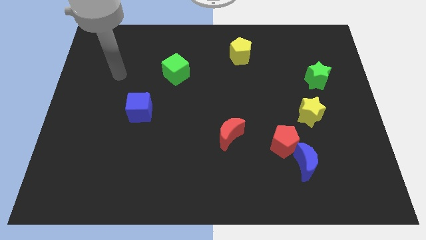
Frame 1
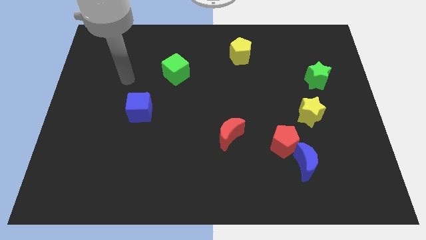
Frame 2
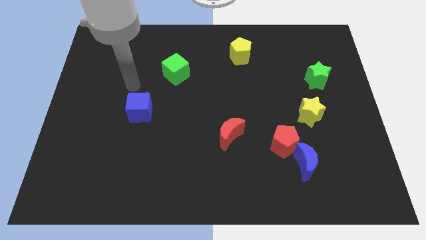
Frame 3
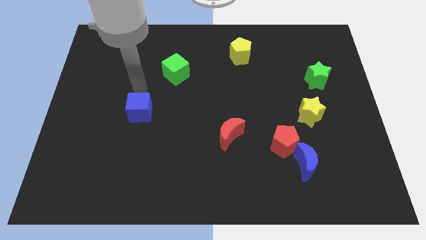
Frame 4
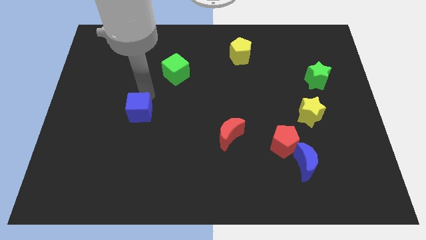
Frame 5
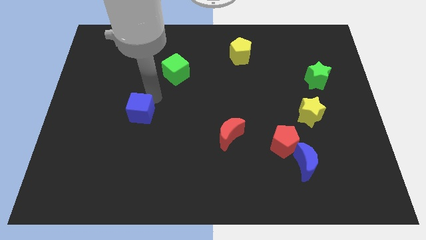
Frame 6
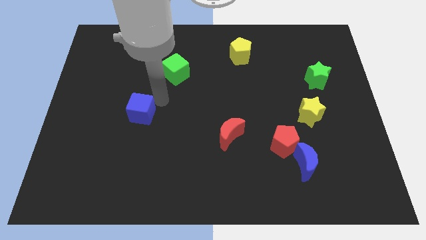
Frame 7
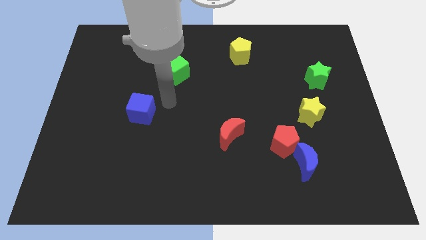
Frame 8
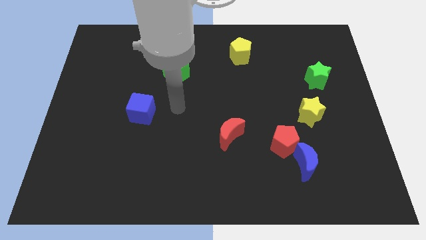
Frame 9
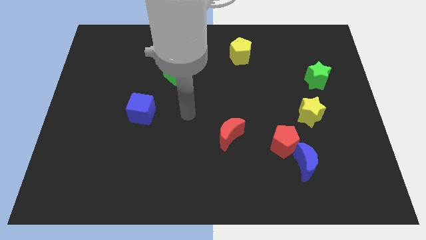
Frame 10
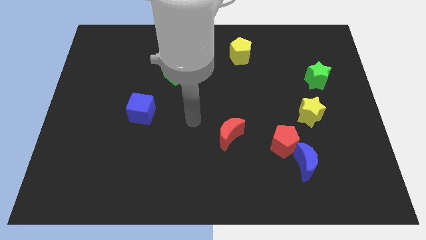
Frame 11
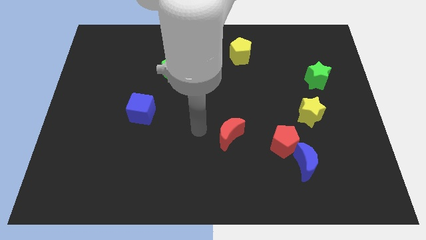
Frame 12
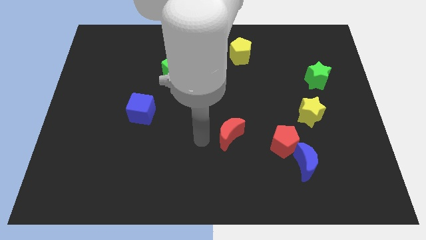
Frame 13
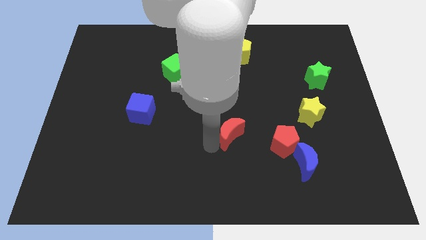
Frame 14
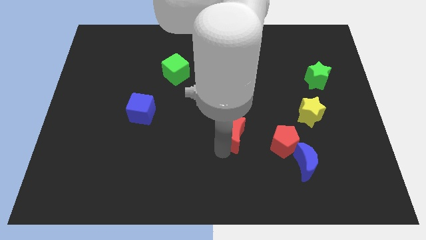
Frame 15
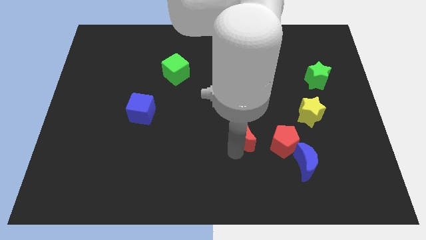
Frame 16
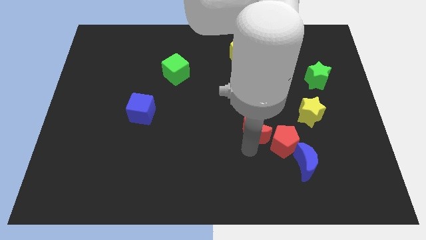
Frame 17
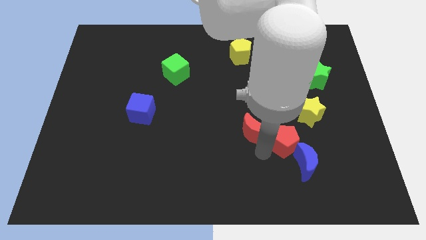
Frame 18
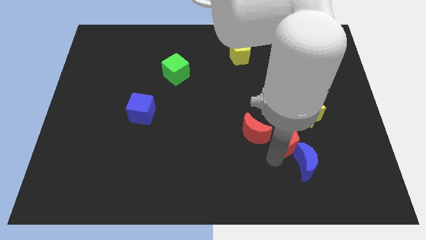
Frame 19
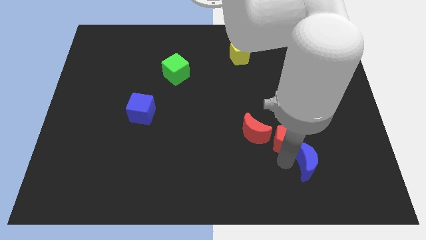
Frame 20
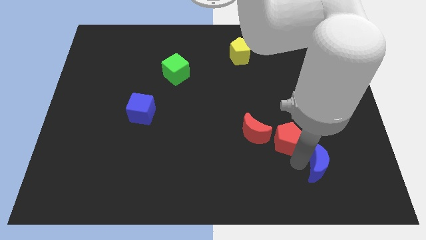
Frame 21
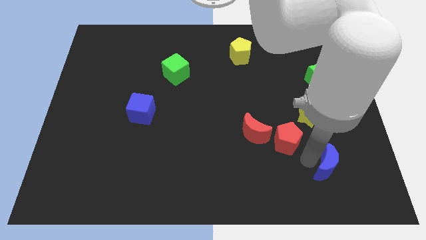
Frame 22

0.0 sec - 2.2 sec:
separate the red pentagon from the blue moon

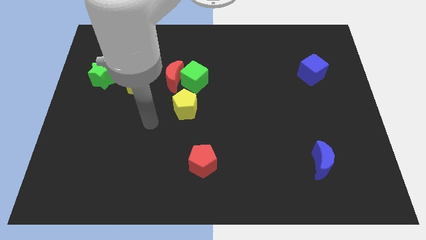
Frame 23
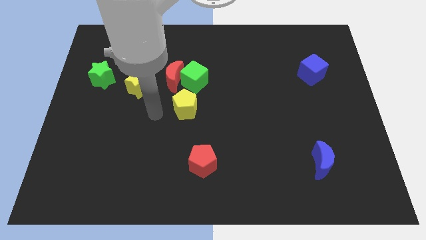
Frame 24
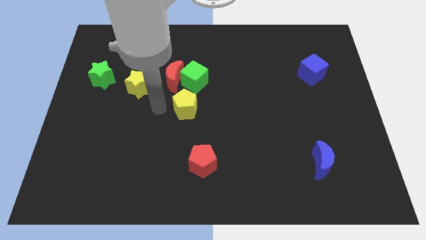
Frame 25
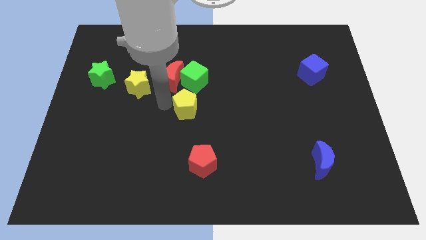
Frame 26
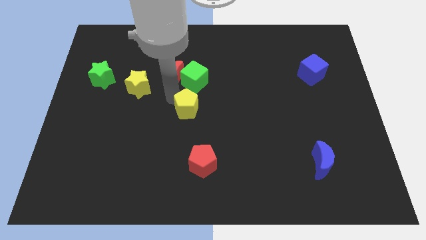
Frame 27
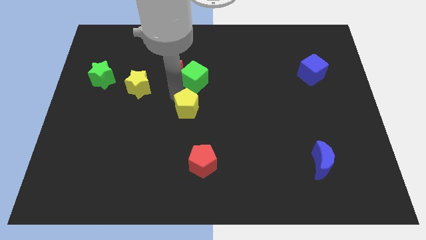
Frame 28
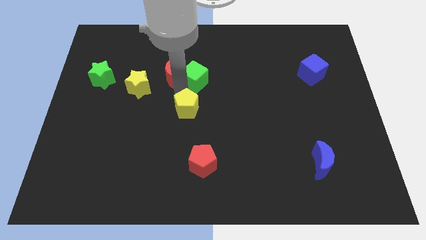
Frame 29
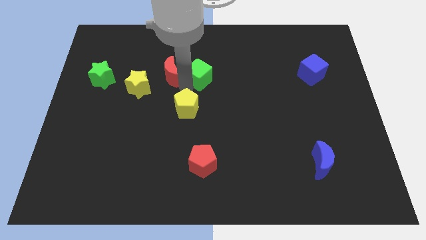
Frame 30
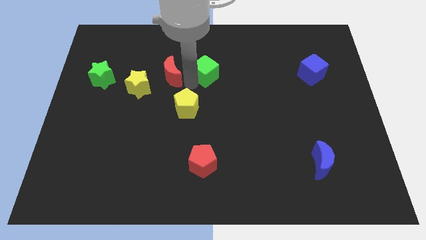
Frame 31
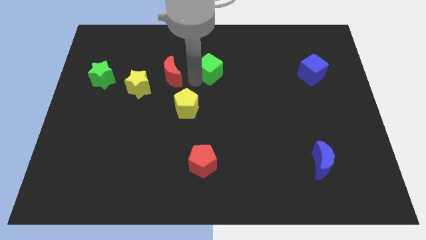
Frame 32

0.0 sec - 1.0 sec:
separate the green cube from the red moon and yellow pentagon

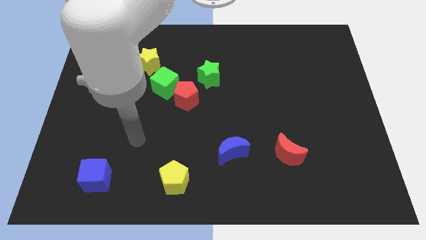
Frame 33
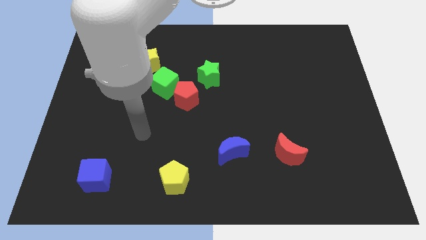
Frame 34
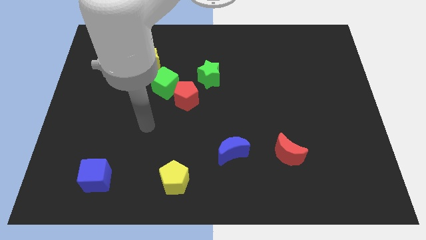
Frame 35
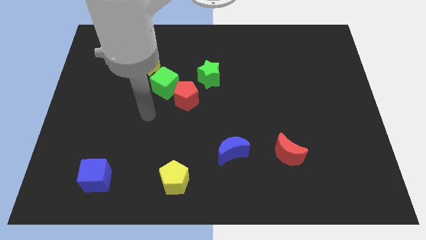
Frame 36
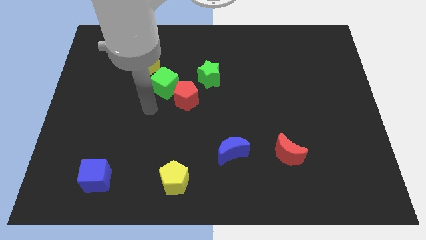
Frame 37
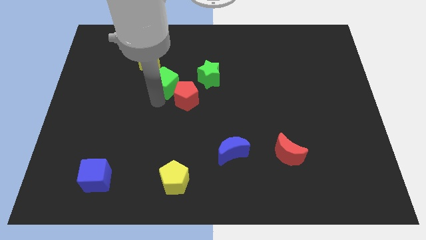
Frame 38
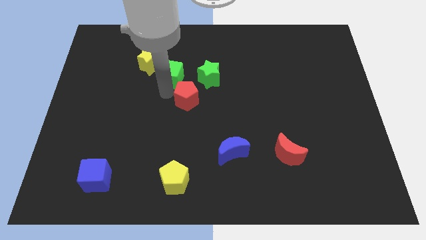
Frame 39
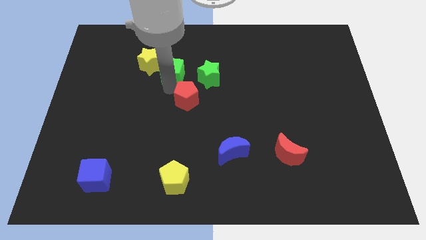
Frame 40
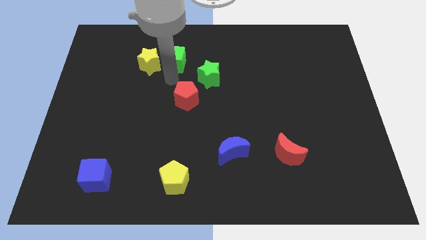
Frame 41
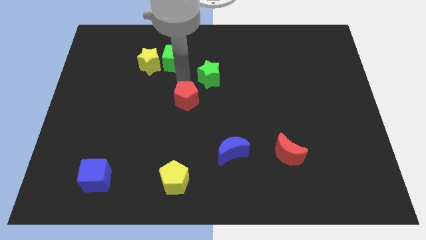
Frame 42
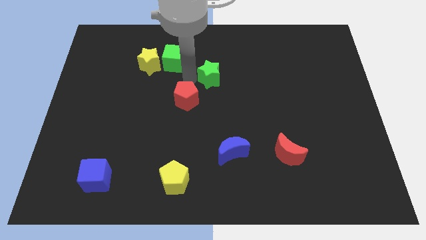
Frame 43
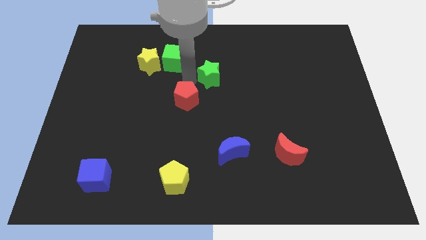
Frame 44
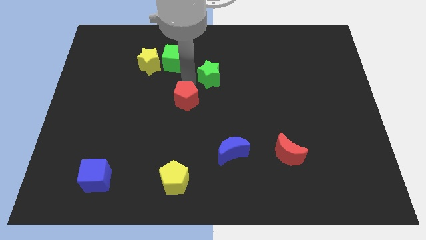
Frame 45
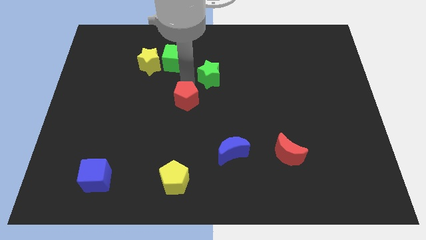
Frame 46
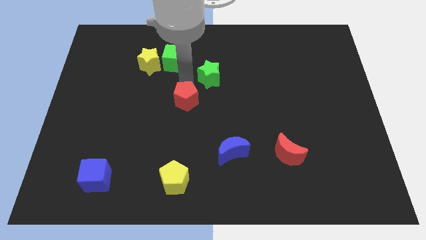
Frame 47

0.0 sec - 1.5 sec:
move the red pentagon away from the green cube and green star

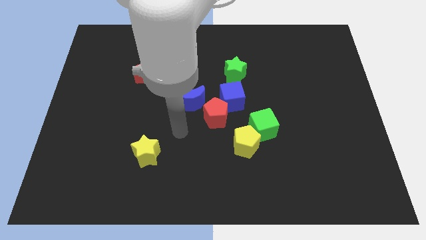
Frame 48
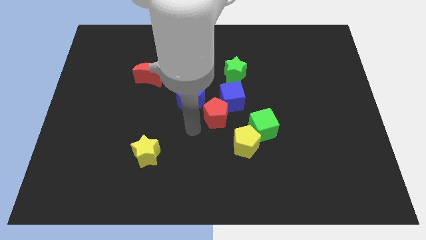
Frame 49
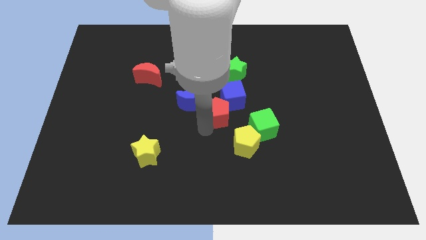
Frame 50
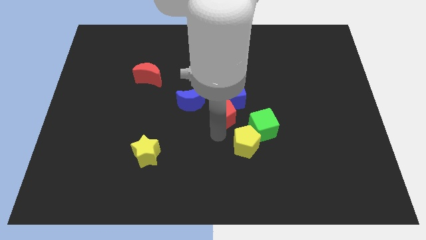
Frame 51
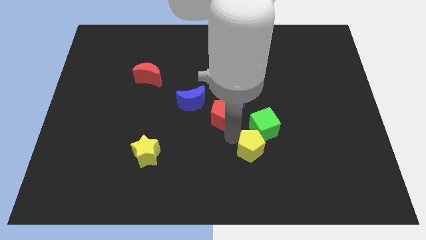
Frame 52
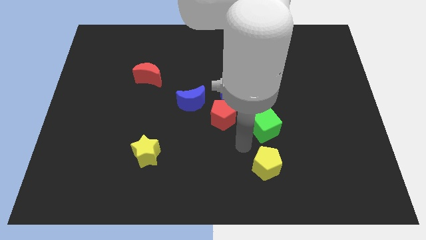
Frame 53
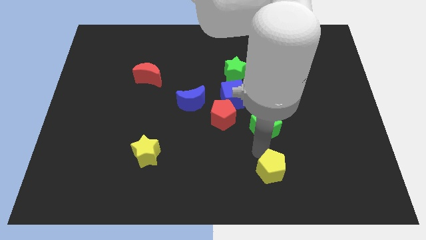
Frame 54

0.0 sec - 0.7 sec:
pull the green cube apart from the yellow pentagon

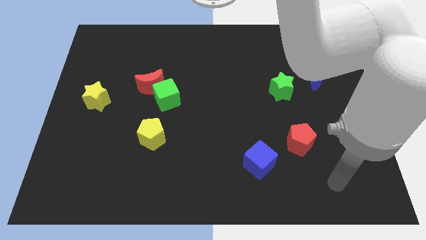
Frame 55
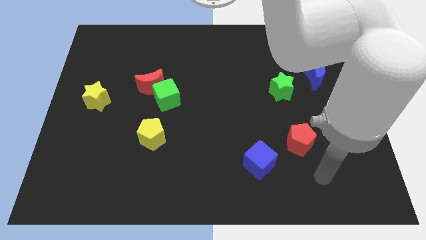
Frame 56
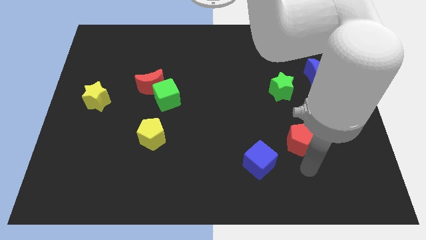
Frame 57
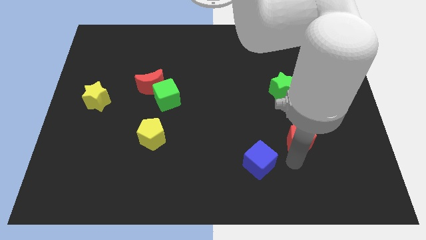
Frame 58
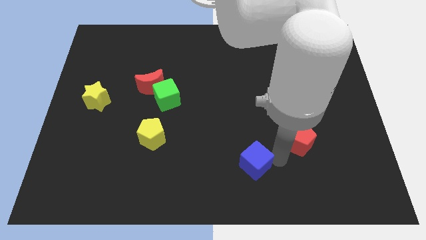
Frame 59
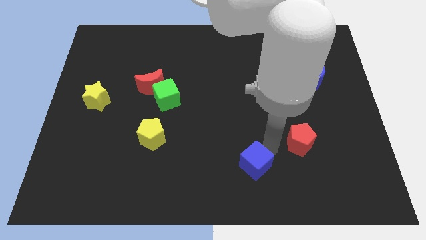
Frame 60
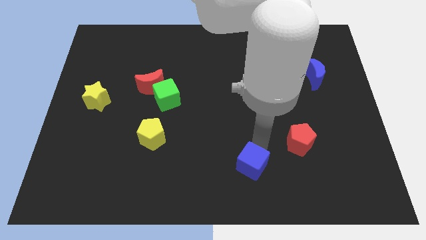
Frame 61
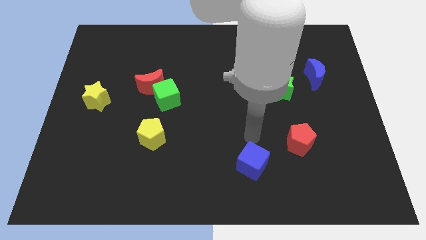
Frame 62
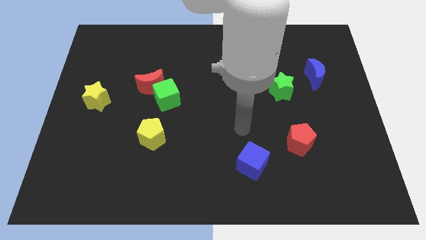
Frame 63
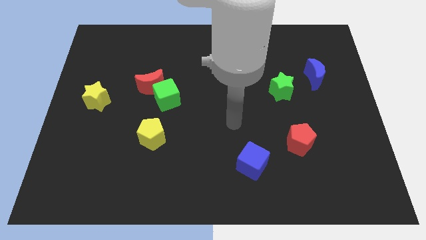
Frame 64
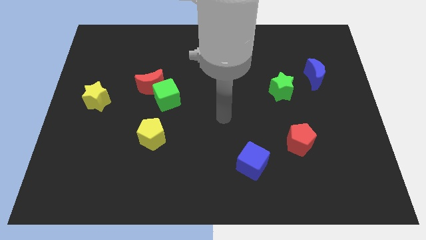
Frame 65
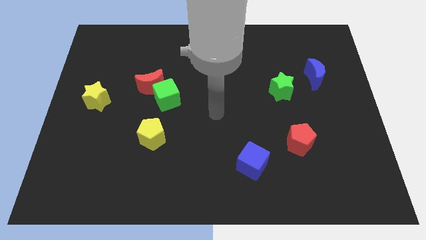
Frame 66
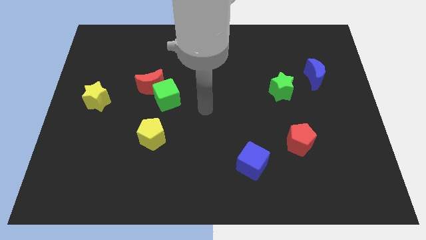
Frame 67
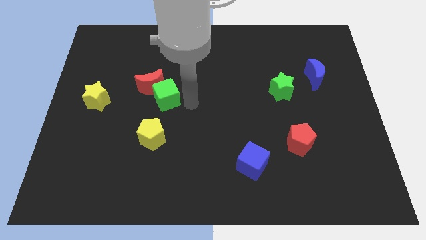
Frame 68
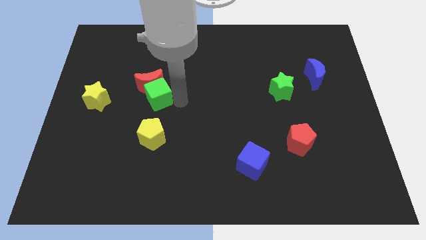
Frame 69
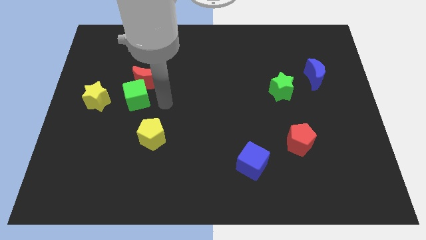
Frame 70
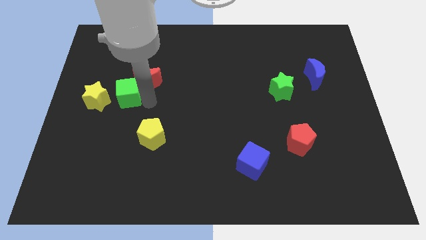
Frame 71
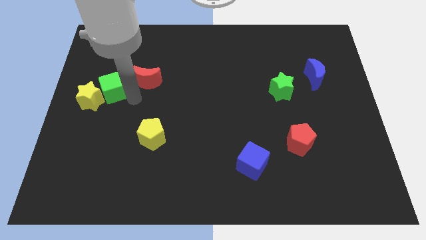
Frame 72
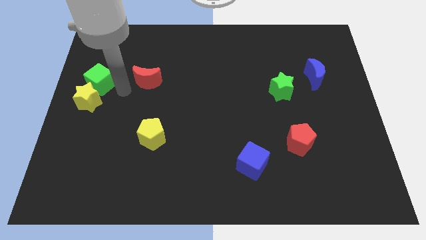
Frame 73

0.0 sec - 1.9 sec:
move the red moon away from the green cube

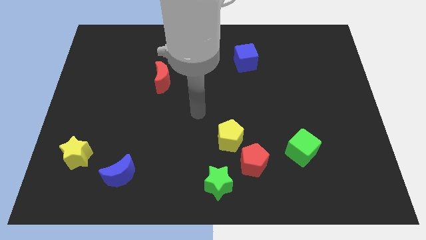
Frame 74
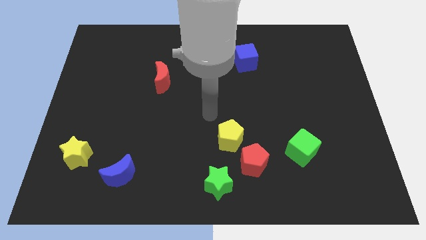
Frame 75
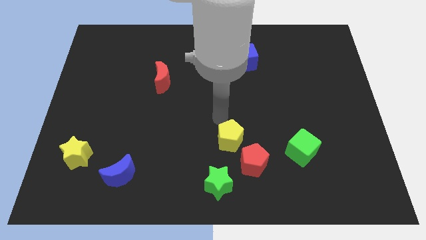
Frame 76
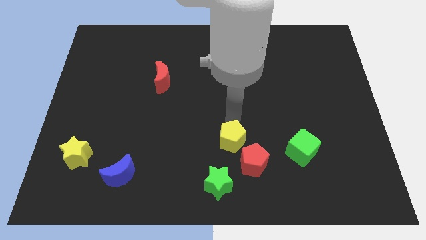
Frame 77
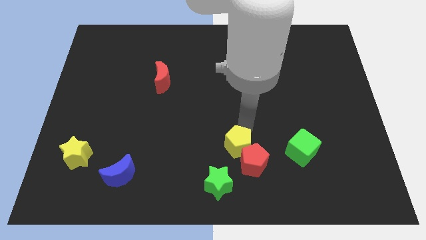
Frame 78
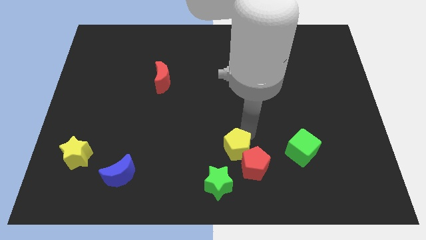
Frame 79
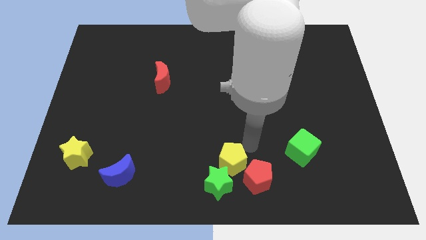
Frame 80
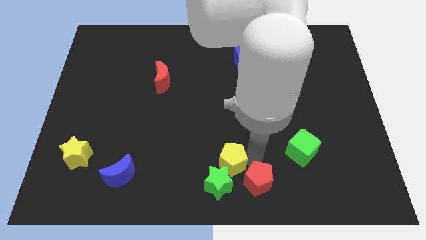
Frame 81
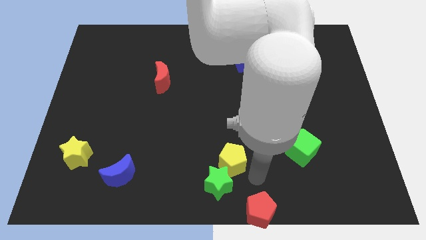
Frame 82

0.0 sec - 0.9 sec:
move the yellow pentagon away from the red pentagon

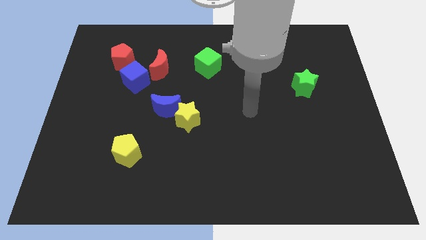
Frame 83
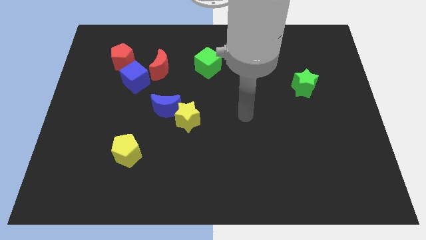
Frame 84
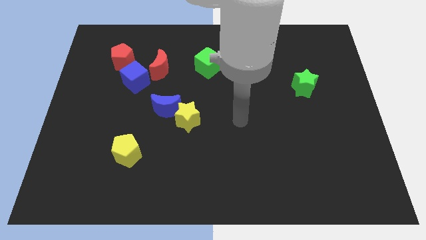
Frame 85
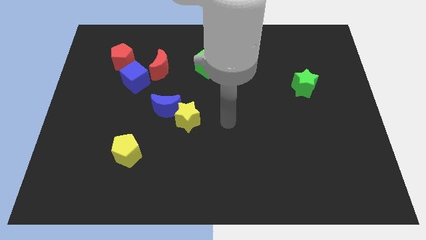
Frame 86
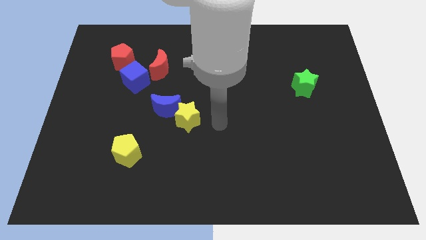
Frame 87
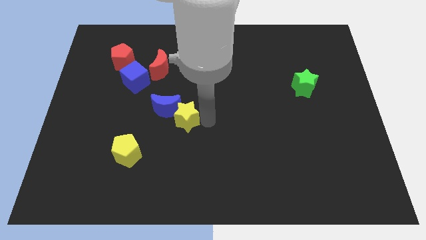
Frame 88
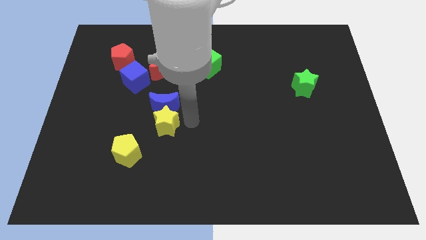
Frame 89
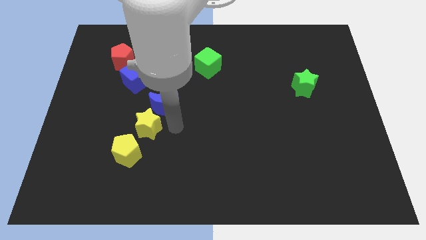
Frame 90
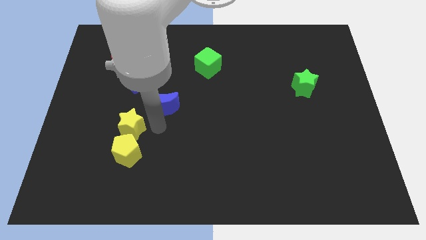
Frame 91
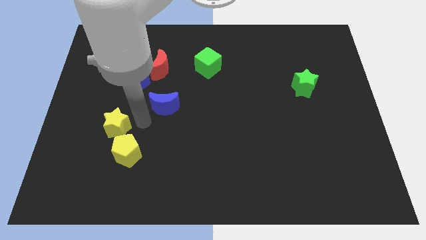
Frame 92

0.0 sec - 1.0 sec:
pull the blue moon apart from the yellow star
